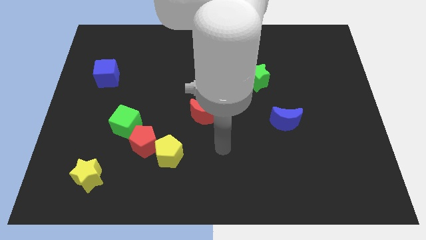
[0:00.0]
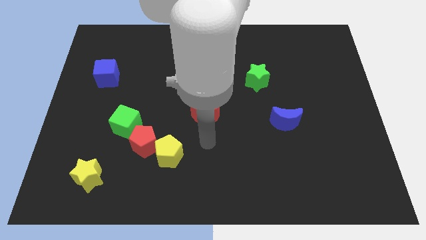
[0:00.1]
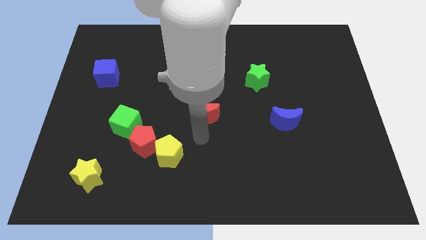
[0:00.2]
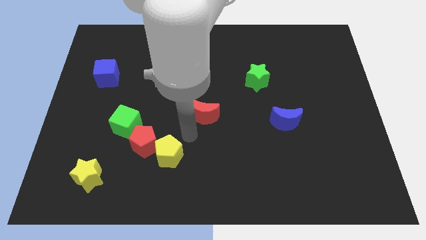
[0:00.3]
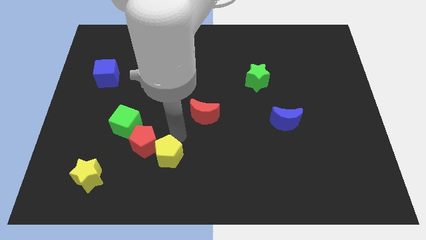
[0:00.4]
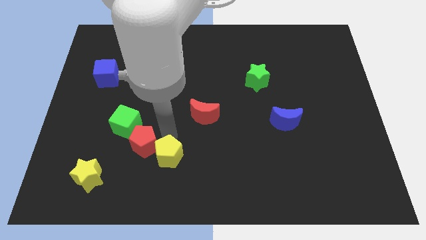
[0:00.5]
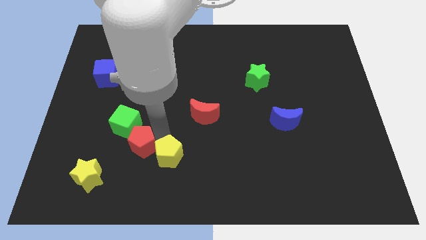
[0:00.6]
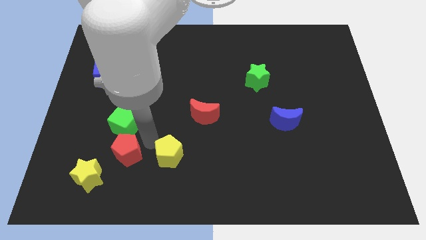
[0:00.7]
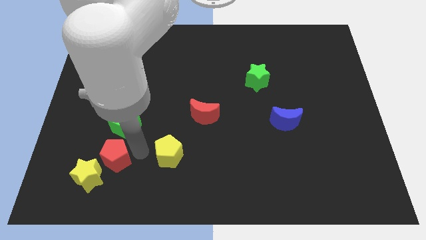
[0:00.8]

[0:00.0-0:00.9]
move the yellow pentagon away from the red pentagon

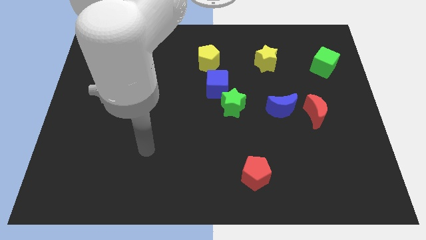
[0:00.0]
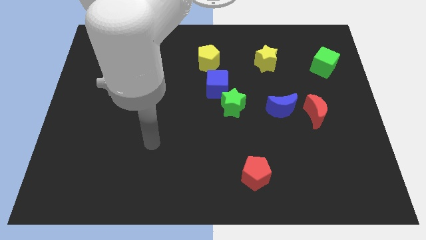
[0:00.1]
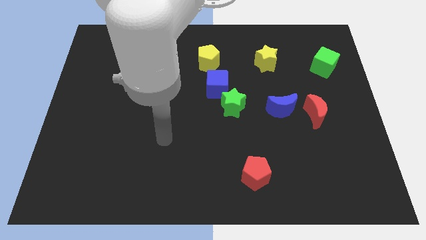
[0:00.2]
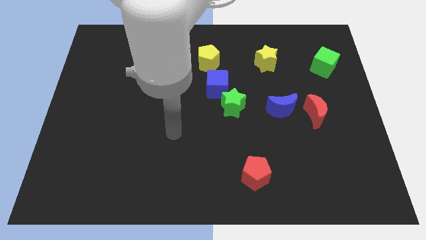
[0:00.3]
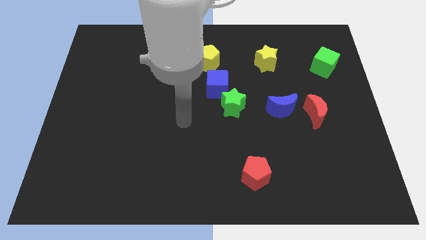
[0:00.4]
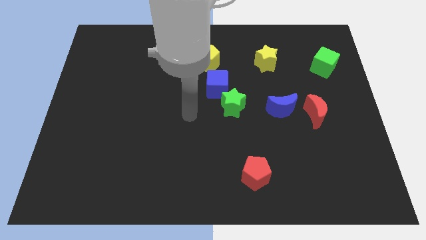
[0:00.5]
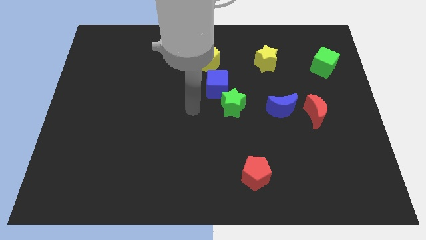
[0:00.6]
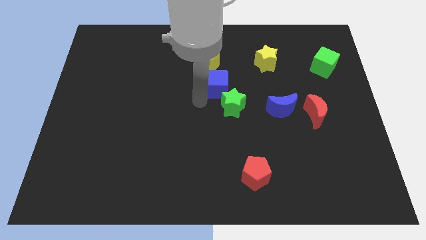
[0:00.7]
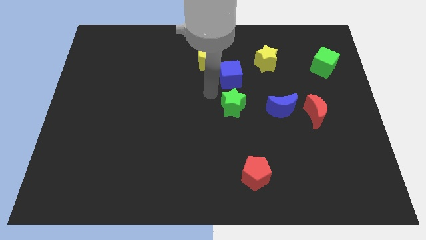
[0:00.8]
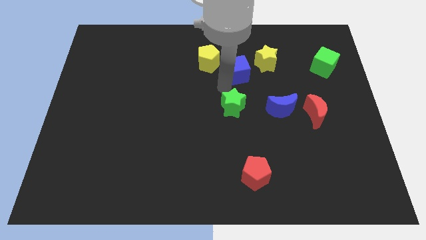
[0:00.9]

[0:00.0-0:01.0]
move the green star away from the blue cube

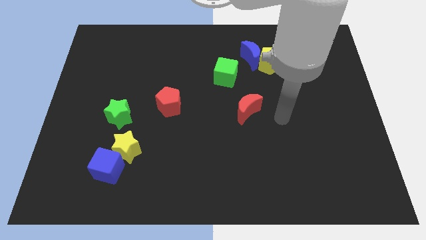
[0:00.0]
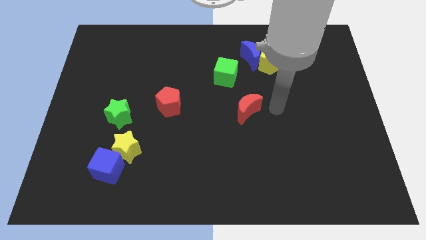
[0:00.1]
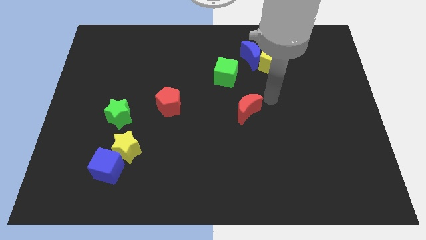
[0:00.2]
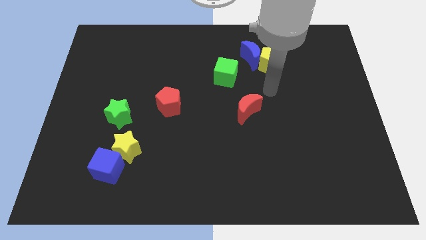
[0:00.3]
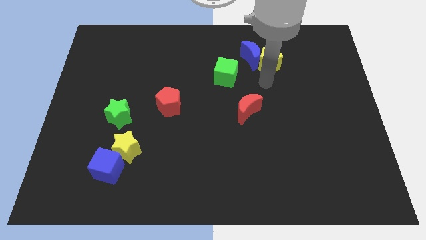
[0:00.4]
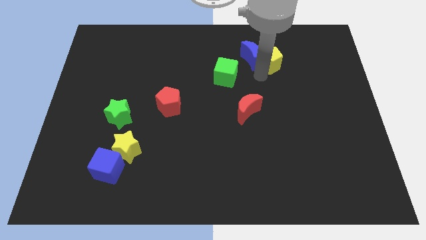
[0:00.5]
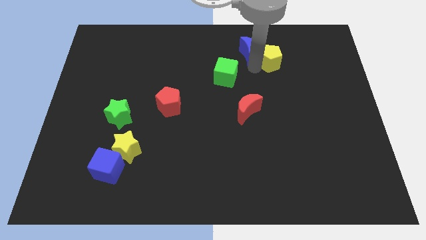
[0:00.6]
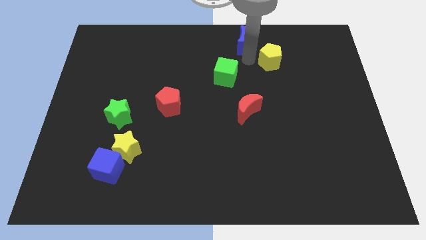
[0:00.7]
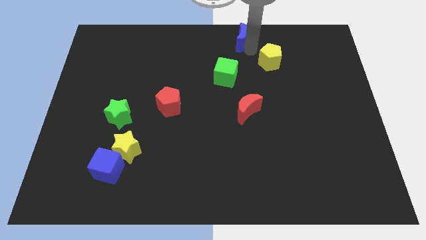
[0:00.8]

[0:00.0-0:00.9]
move the yellow pentagon away from the blue moon

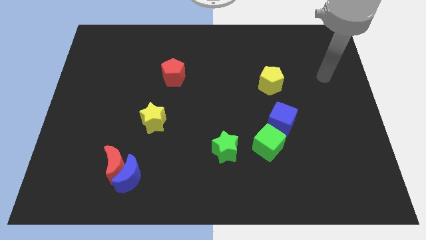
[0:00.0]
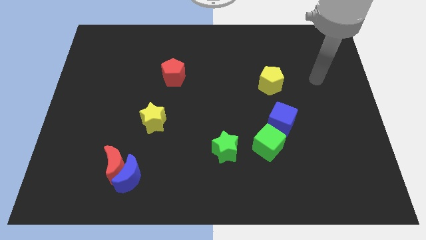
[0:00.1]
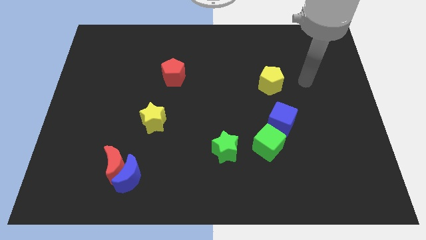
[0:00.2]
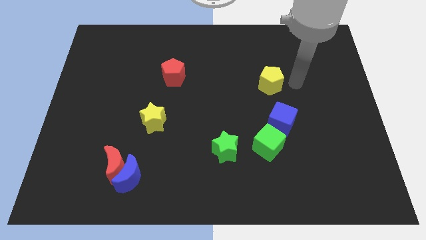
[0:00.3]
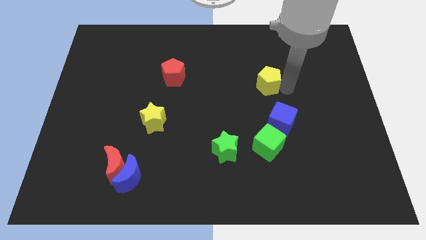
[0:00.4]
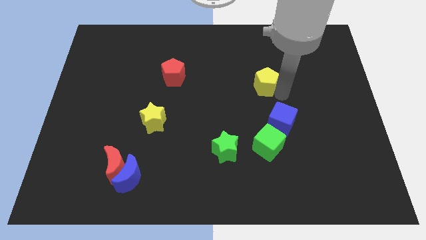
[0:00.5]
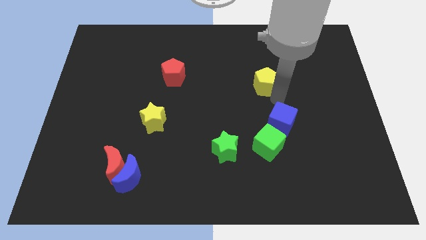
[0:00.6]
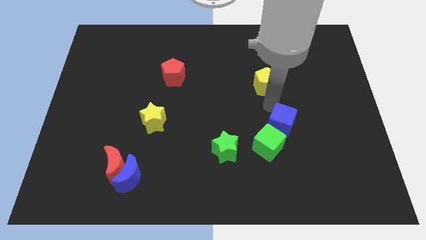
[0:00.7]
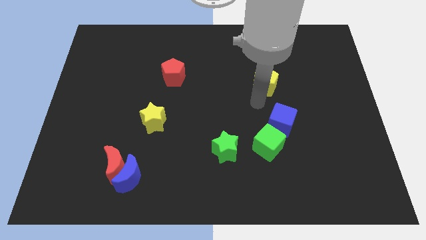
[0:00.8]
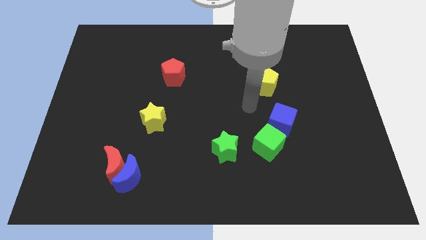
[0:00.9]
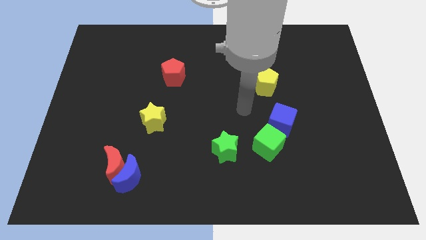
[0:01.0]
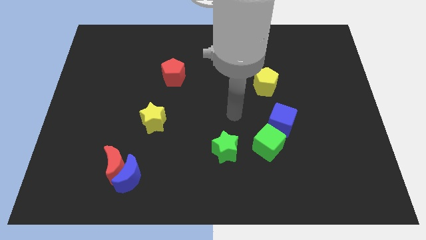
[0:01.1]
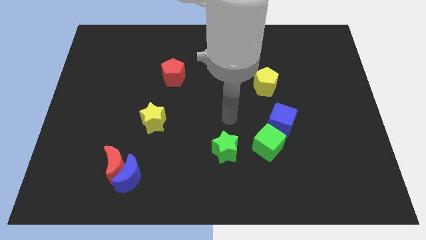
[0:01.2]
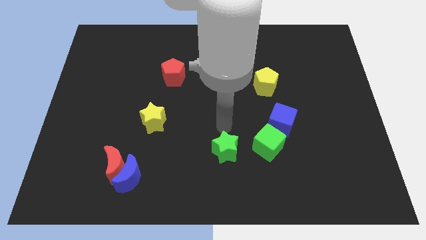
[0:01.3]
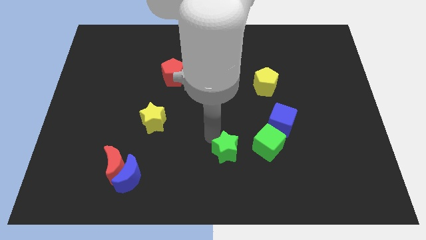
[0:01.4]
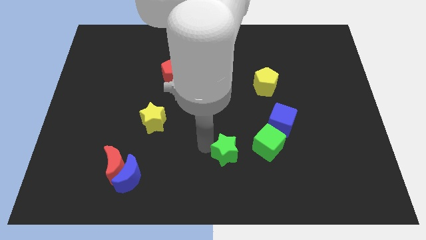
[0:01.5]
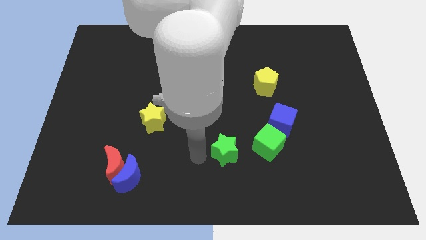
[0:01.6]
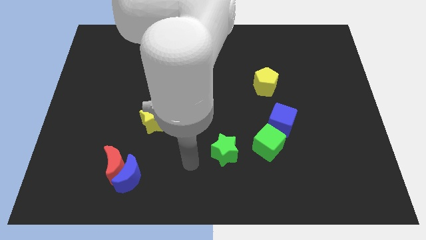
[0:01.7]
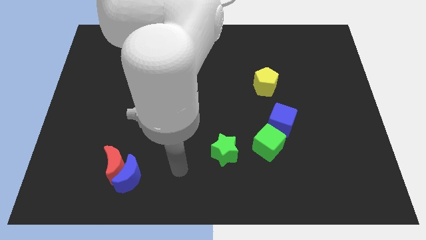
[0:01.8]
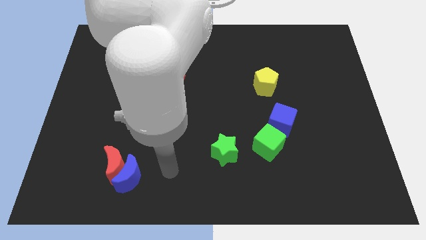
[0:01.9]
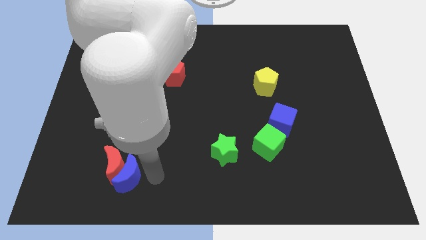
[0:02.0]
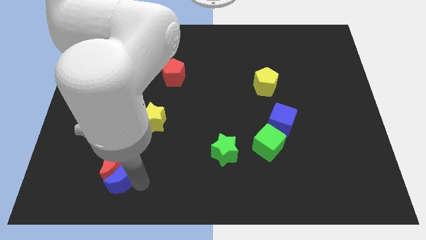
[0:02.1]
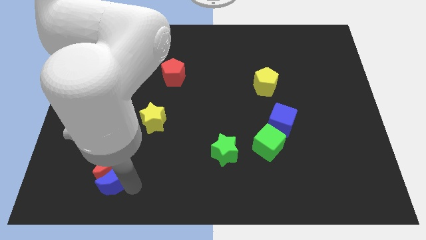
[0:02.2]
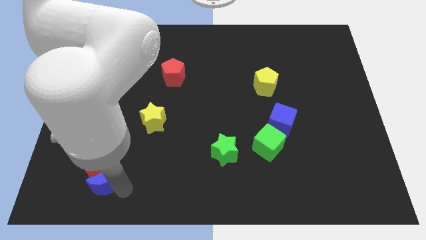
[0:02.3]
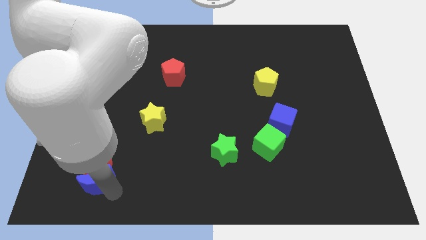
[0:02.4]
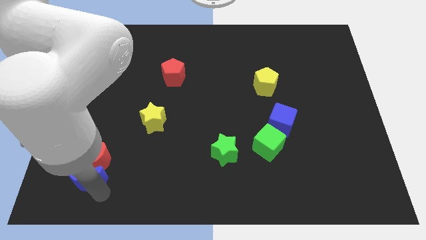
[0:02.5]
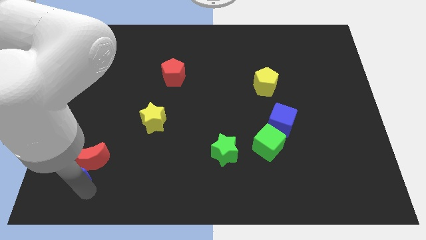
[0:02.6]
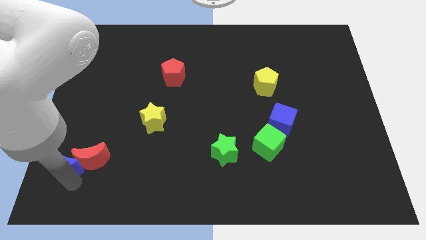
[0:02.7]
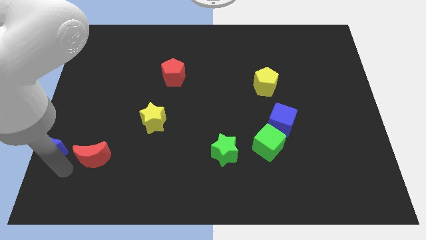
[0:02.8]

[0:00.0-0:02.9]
pull the red moon apart from the blue moon

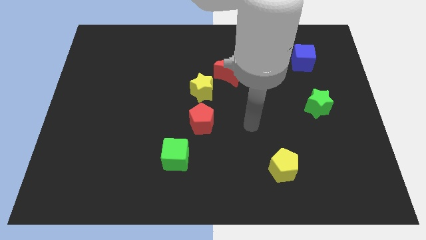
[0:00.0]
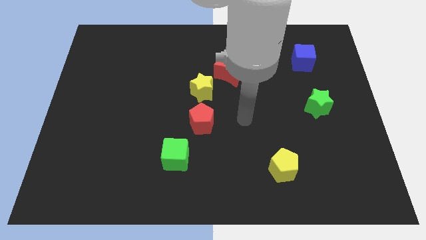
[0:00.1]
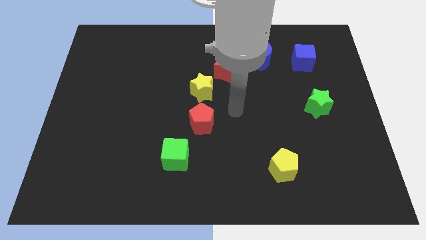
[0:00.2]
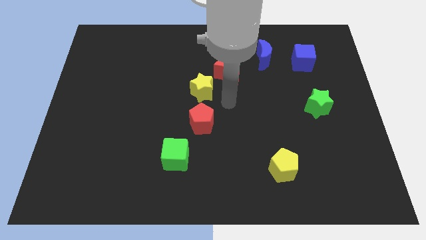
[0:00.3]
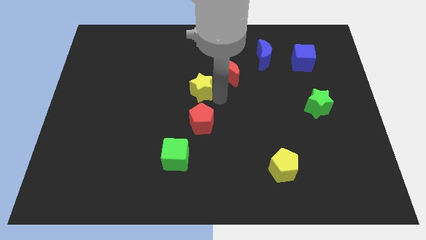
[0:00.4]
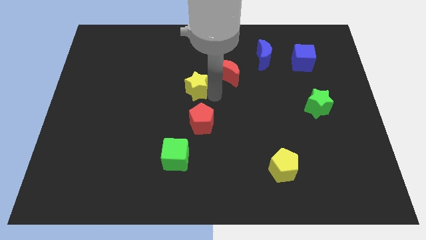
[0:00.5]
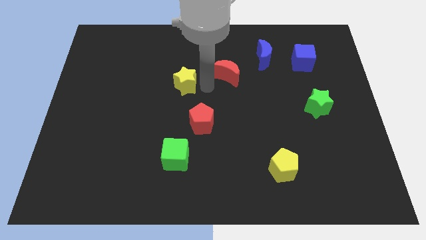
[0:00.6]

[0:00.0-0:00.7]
move the red moon away from the yellow star

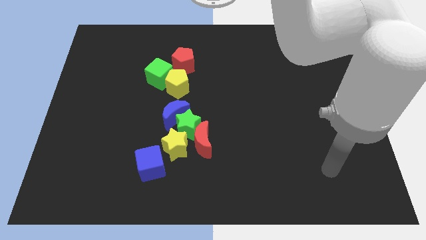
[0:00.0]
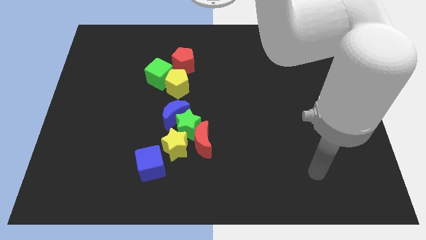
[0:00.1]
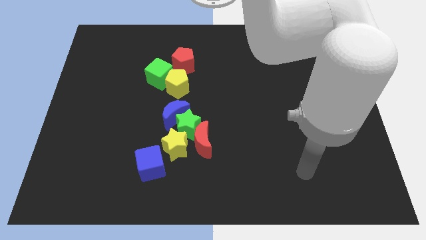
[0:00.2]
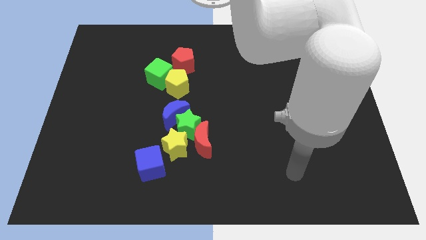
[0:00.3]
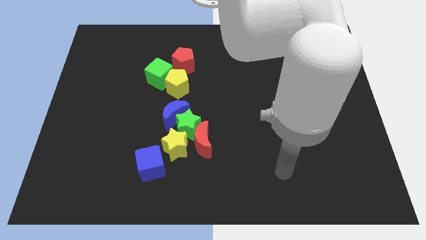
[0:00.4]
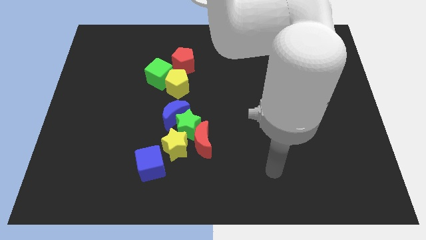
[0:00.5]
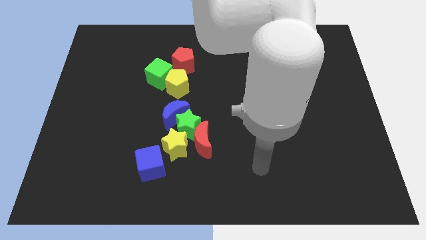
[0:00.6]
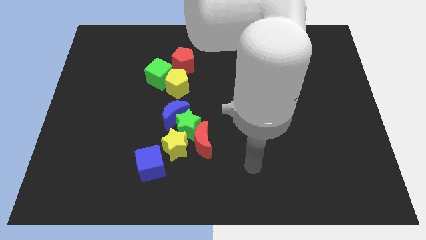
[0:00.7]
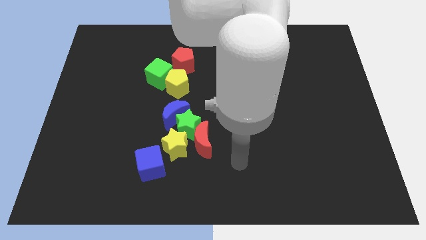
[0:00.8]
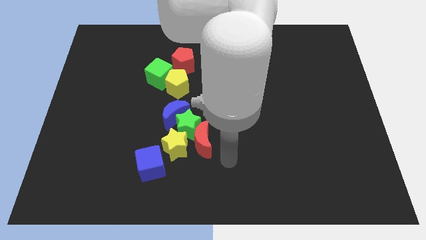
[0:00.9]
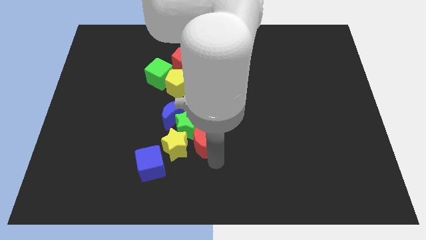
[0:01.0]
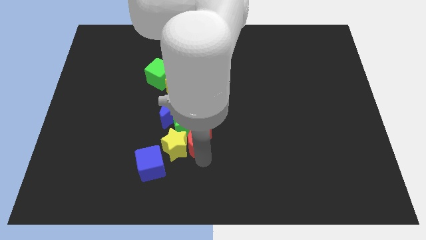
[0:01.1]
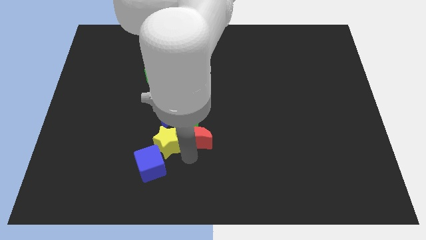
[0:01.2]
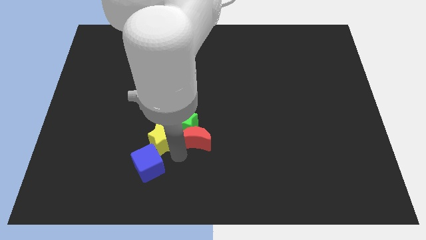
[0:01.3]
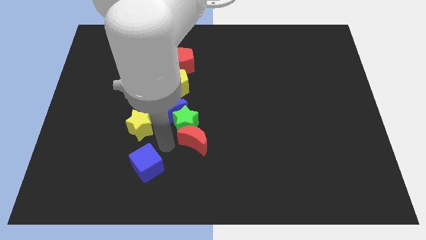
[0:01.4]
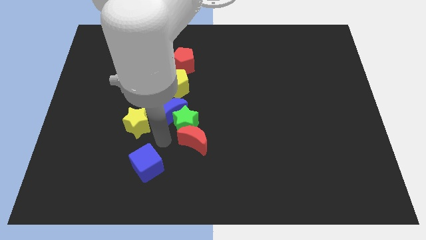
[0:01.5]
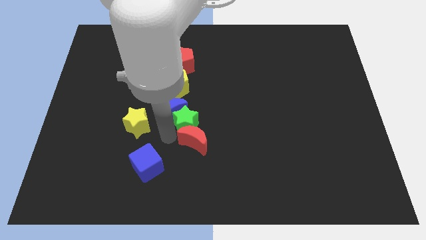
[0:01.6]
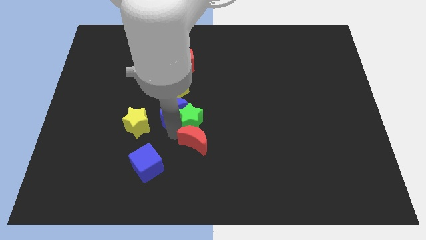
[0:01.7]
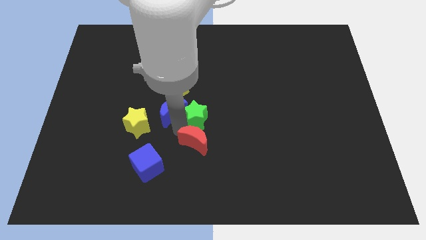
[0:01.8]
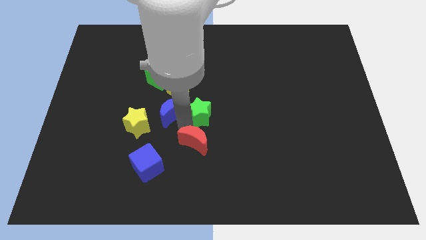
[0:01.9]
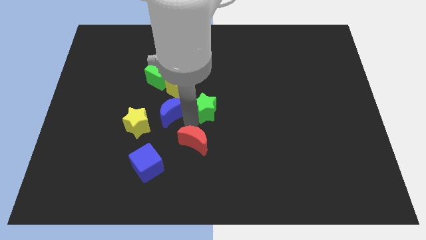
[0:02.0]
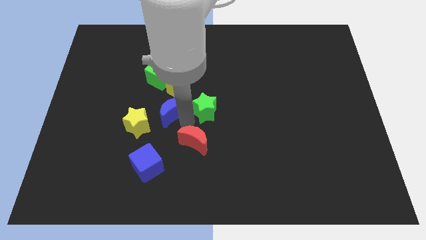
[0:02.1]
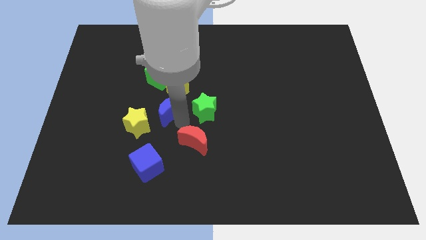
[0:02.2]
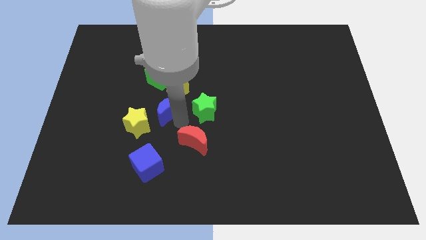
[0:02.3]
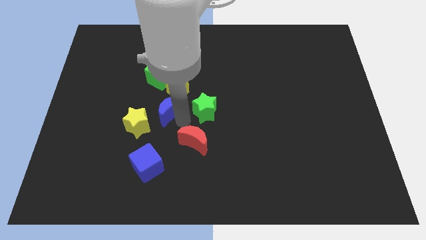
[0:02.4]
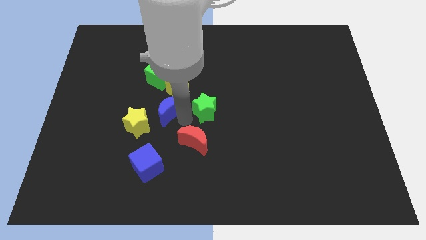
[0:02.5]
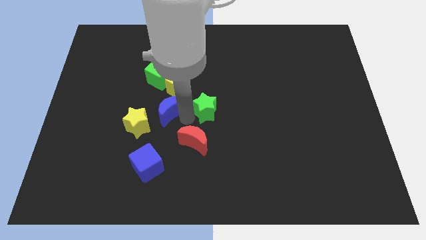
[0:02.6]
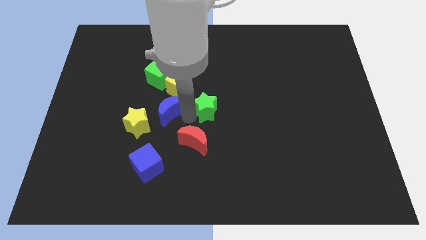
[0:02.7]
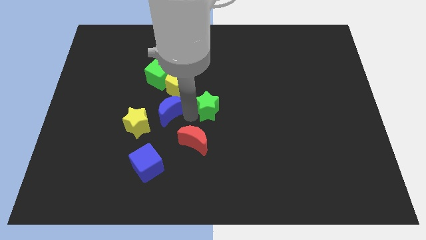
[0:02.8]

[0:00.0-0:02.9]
separate the green star from the clump
